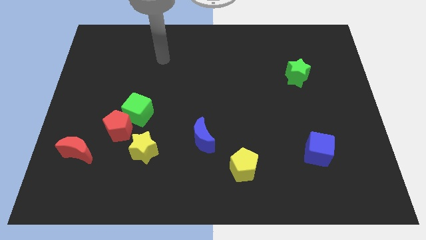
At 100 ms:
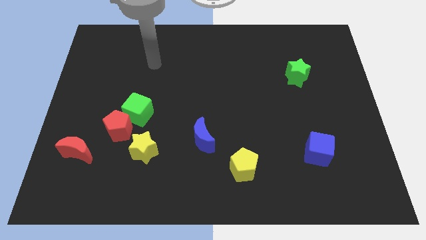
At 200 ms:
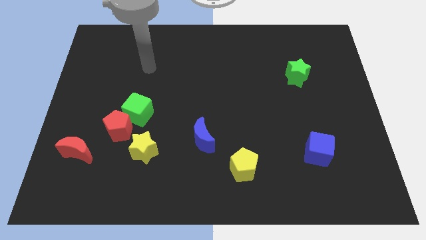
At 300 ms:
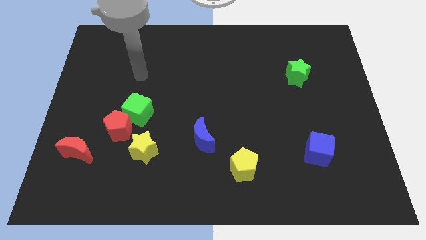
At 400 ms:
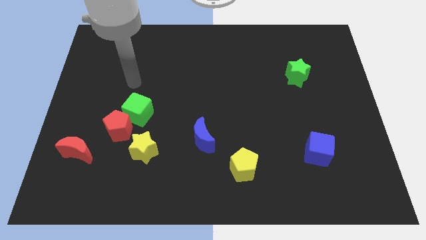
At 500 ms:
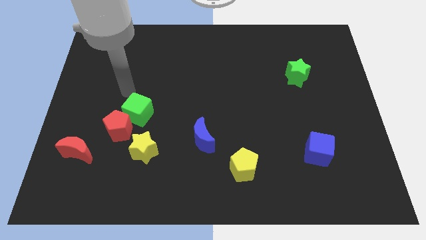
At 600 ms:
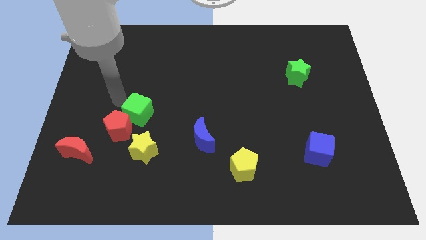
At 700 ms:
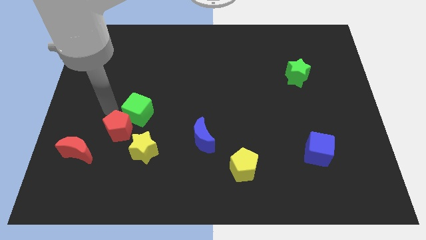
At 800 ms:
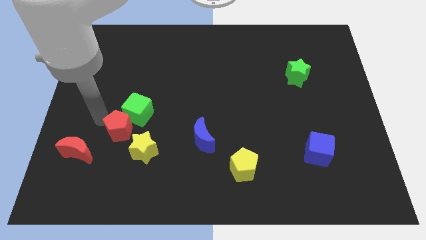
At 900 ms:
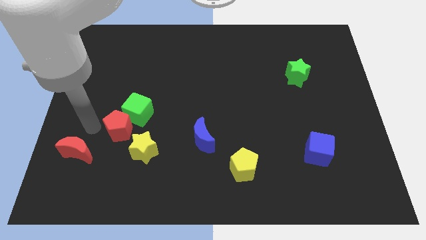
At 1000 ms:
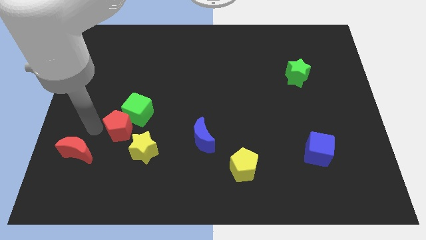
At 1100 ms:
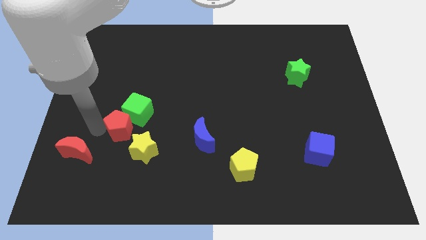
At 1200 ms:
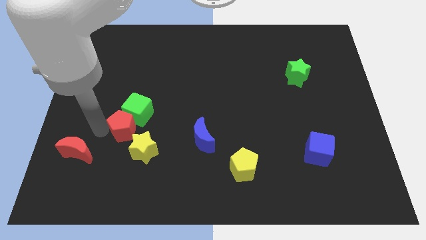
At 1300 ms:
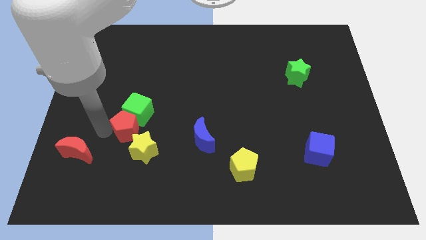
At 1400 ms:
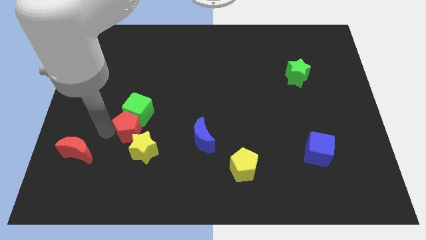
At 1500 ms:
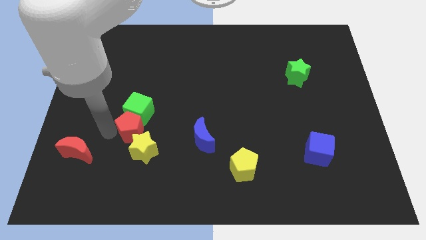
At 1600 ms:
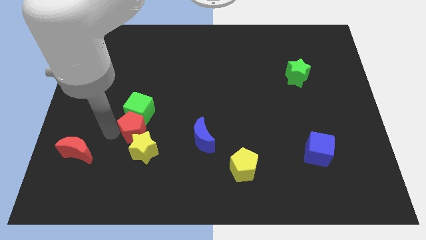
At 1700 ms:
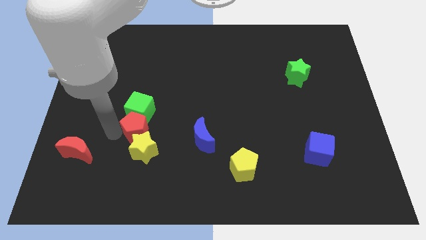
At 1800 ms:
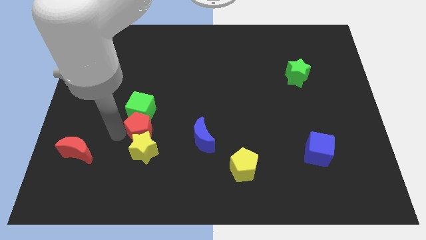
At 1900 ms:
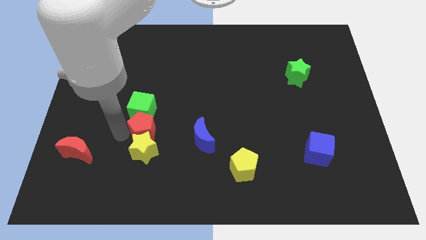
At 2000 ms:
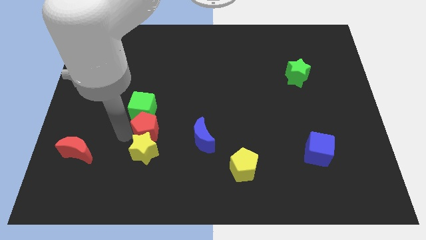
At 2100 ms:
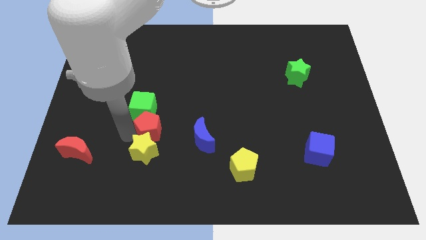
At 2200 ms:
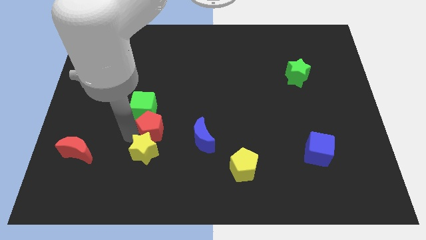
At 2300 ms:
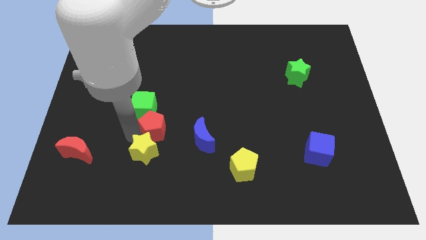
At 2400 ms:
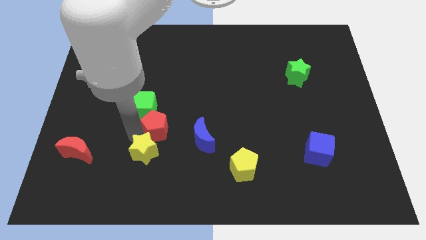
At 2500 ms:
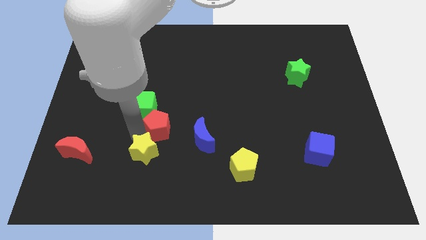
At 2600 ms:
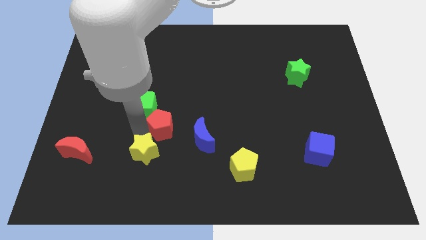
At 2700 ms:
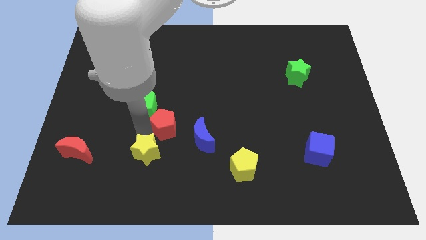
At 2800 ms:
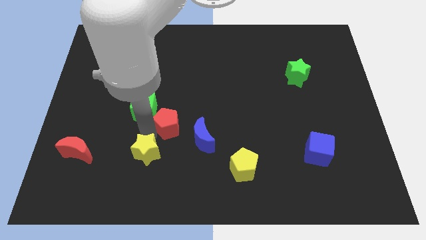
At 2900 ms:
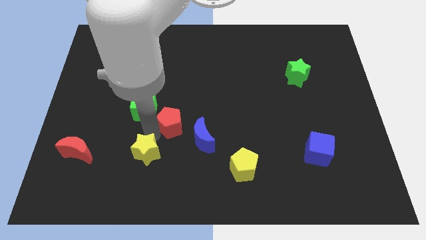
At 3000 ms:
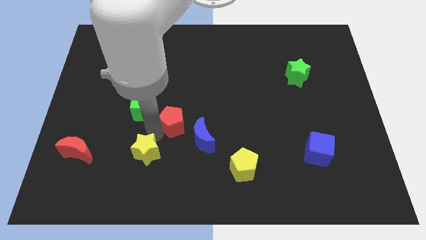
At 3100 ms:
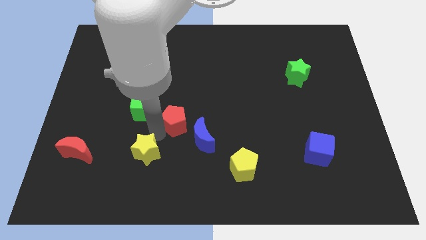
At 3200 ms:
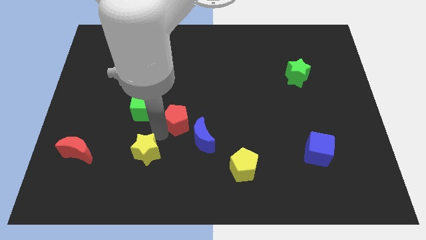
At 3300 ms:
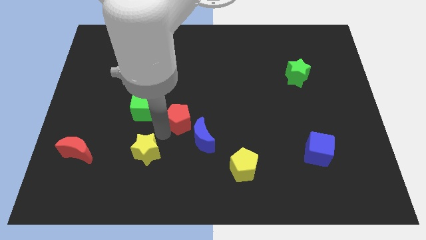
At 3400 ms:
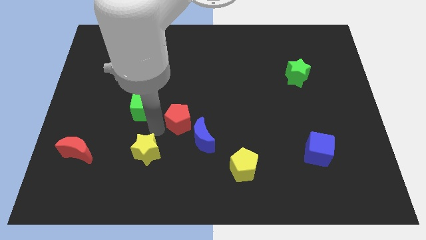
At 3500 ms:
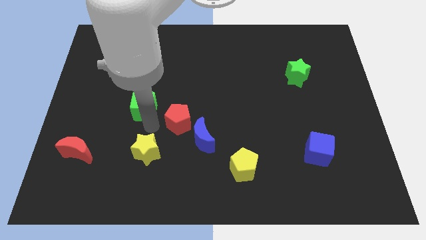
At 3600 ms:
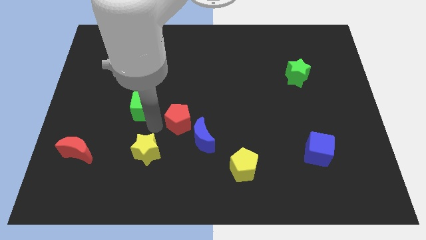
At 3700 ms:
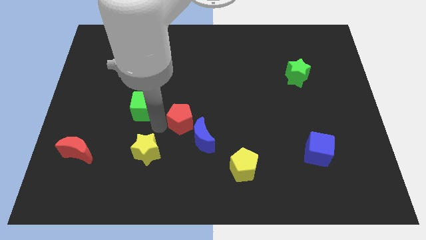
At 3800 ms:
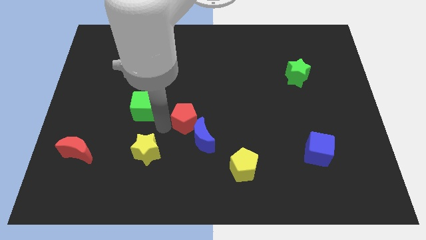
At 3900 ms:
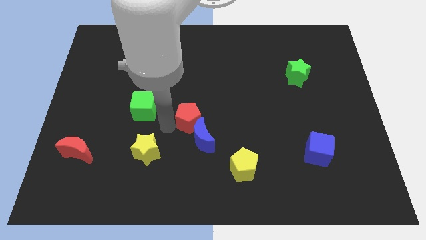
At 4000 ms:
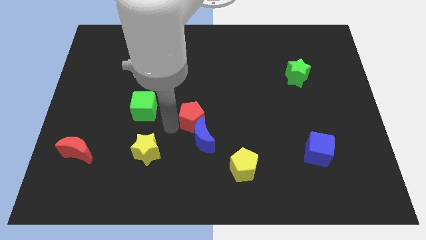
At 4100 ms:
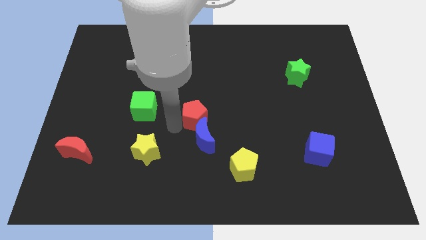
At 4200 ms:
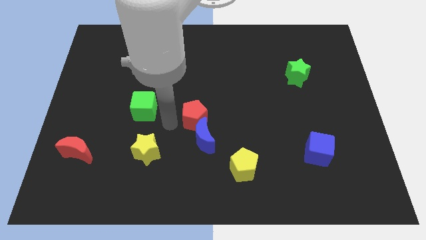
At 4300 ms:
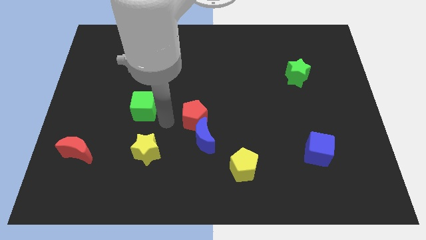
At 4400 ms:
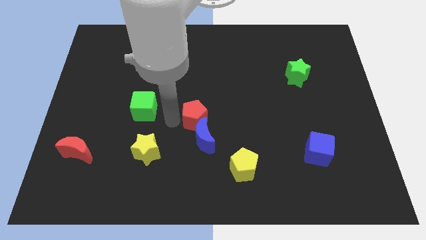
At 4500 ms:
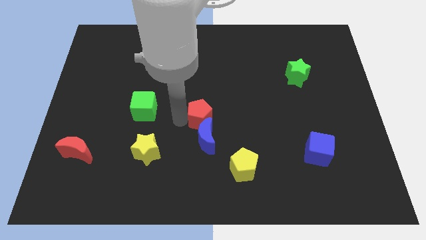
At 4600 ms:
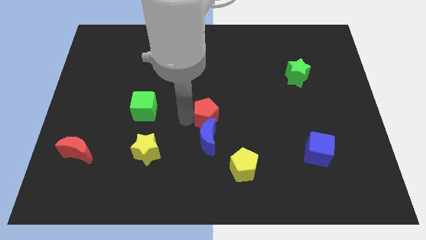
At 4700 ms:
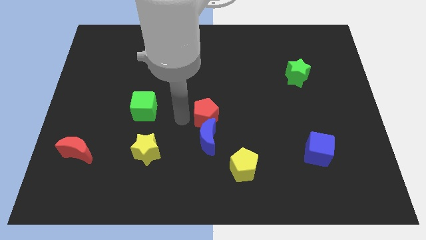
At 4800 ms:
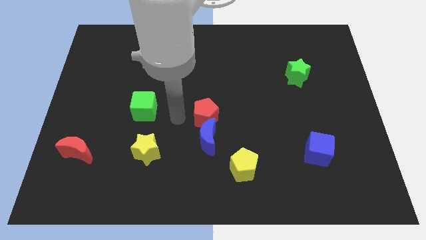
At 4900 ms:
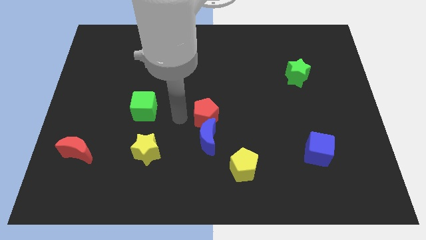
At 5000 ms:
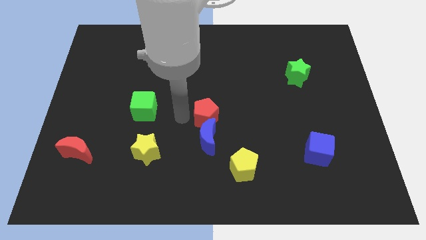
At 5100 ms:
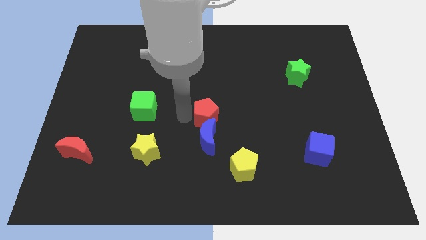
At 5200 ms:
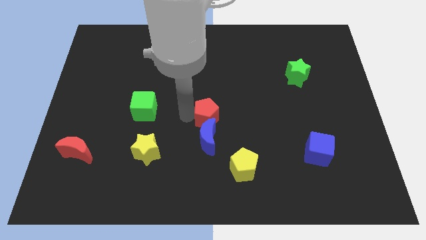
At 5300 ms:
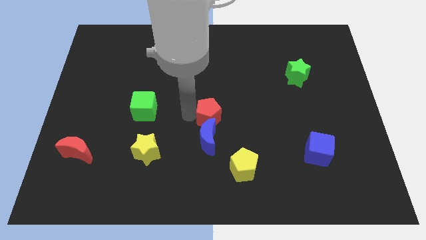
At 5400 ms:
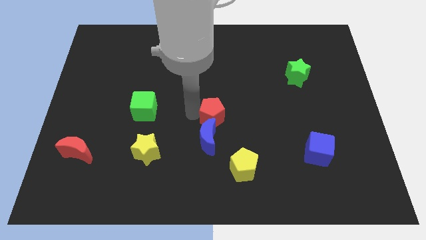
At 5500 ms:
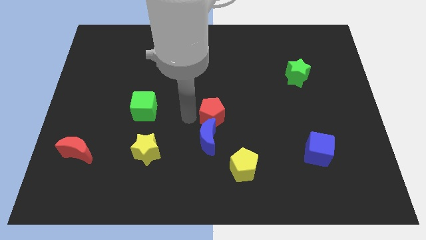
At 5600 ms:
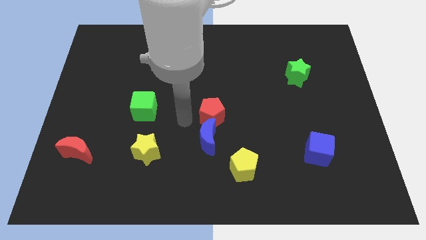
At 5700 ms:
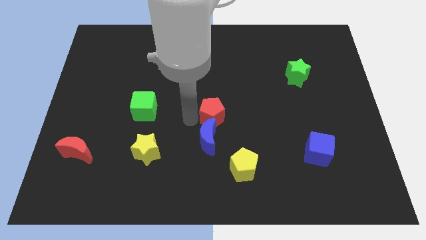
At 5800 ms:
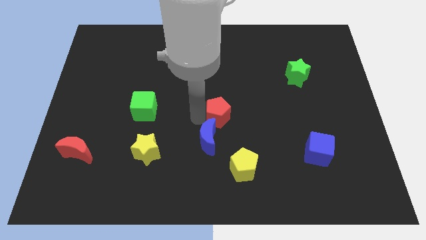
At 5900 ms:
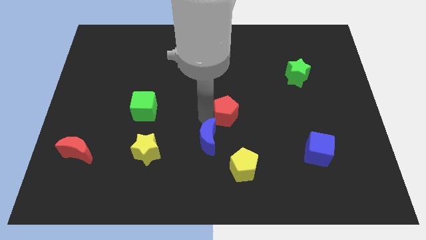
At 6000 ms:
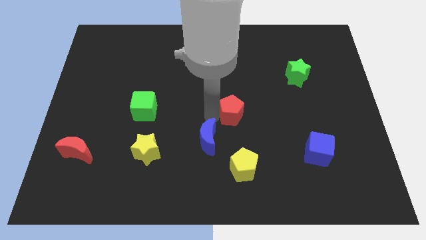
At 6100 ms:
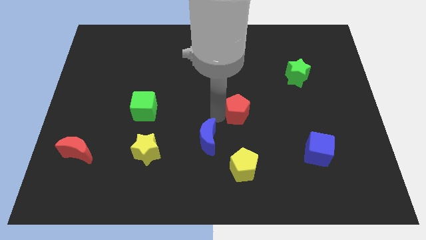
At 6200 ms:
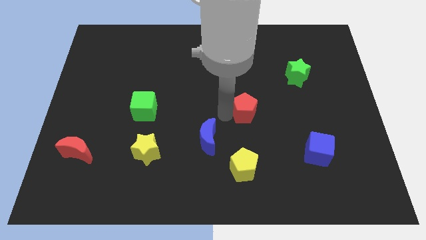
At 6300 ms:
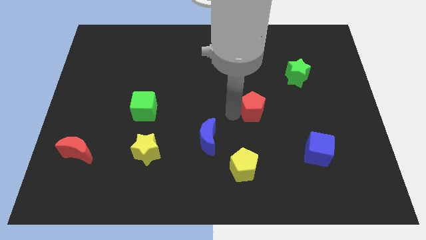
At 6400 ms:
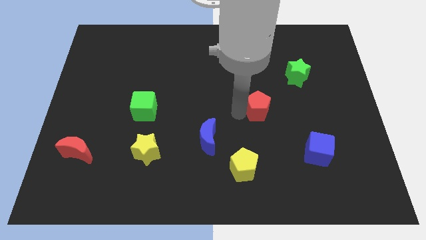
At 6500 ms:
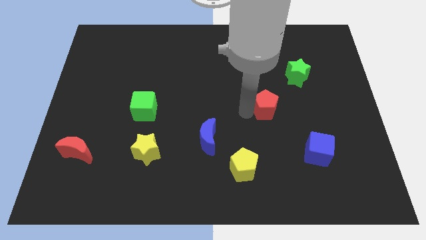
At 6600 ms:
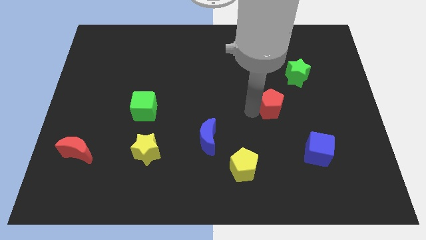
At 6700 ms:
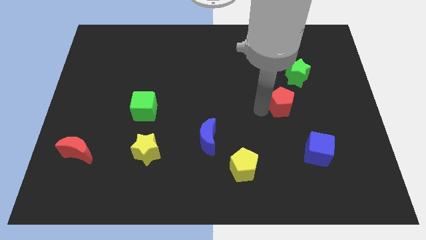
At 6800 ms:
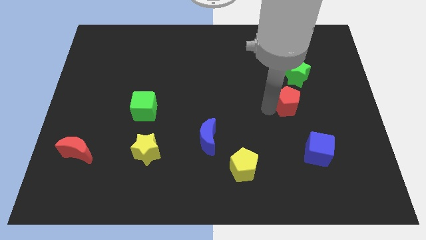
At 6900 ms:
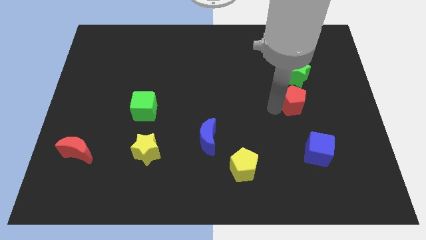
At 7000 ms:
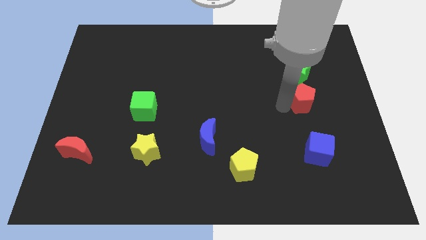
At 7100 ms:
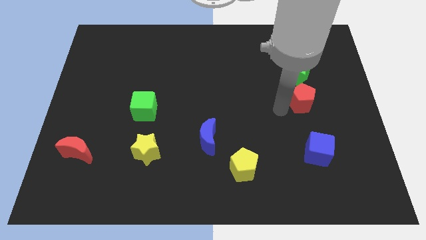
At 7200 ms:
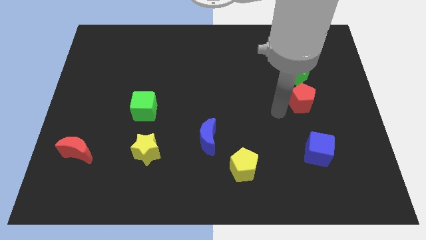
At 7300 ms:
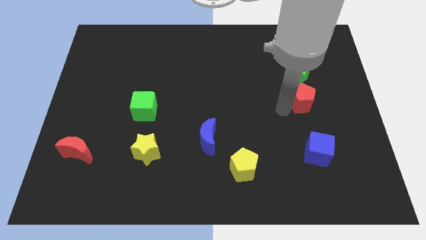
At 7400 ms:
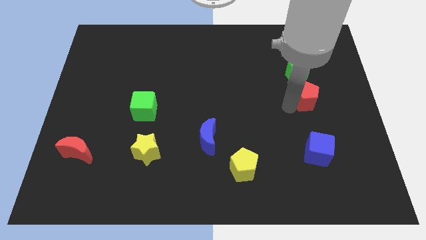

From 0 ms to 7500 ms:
put the red pentagon to the bottom right of the green star
